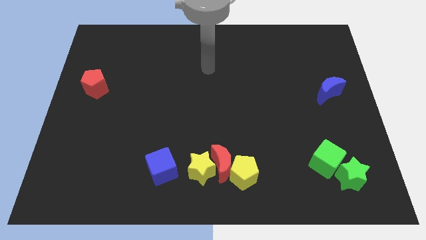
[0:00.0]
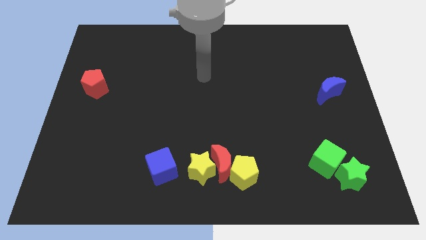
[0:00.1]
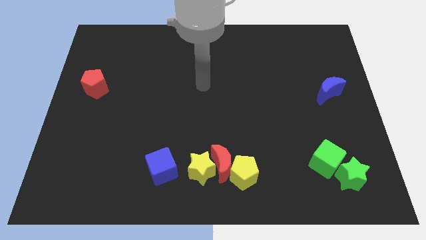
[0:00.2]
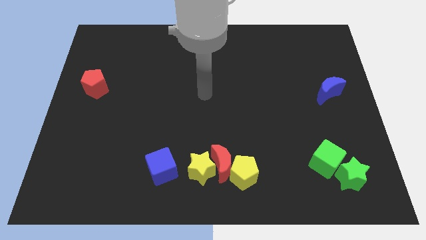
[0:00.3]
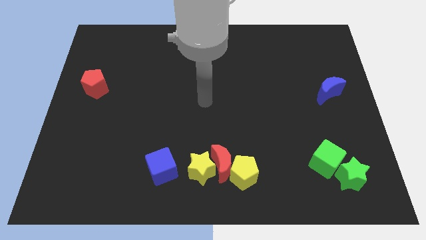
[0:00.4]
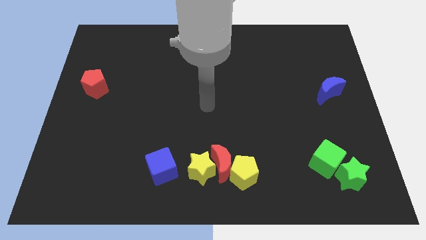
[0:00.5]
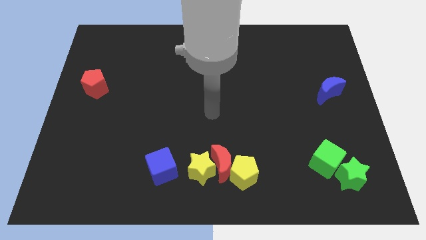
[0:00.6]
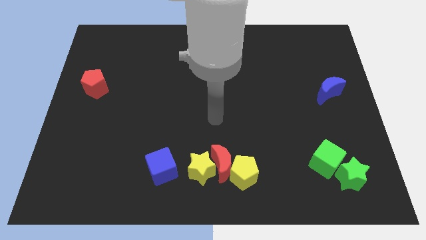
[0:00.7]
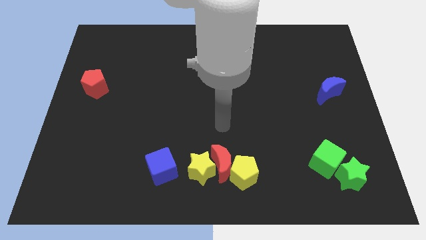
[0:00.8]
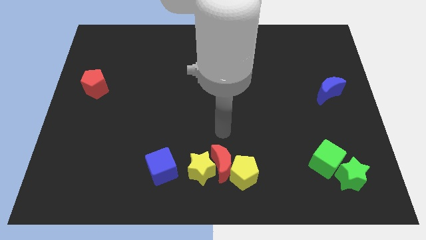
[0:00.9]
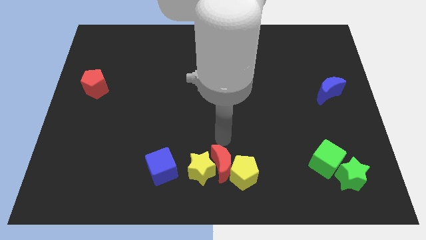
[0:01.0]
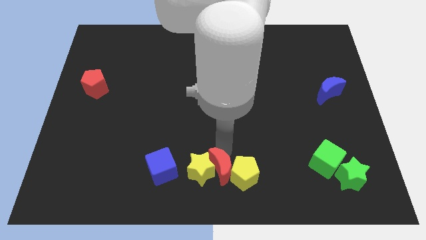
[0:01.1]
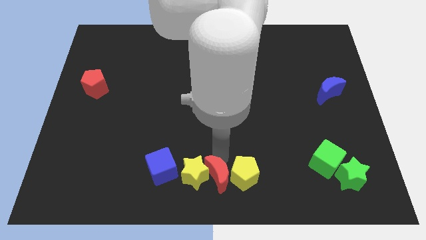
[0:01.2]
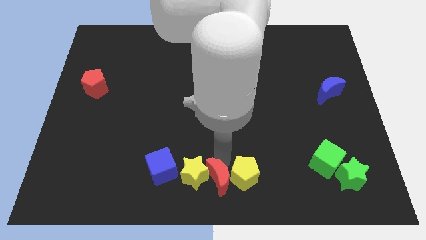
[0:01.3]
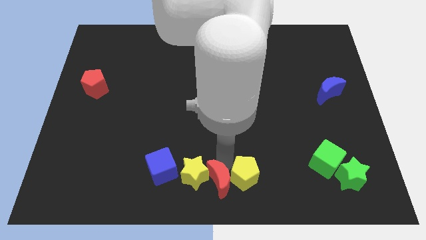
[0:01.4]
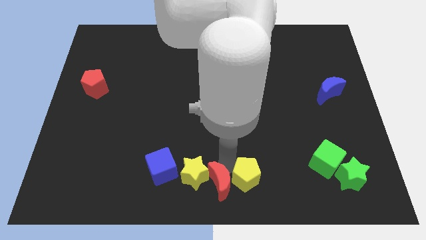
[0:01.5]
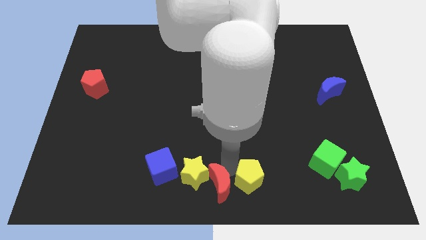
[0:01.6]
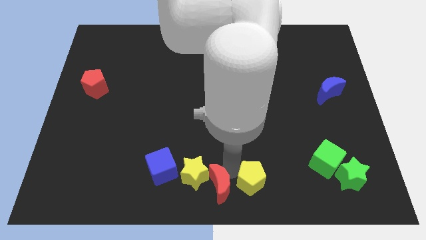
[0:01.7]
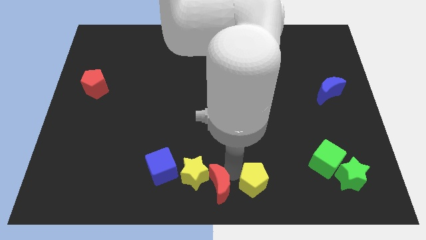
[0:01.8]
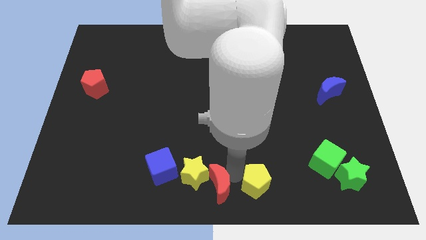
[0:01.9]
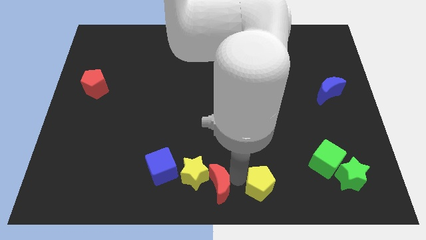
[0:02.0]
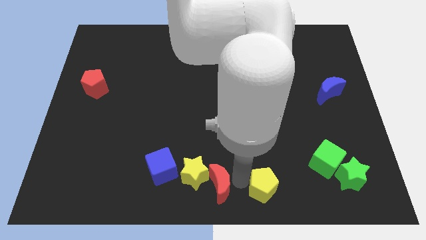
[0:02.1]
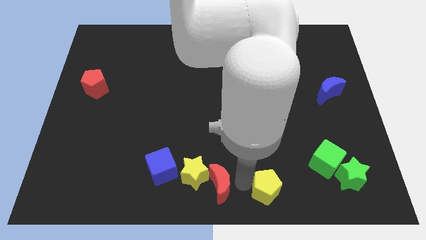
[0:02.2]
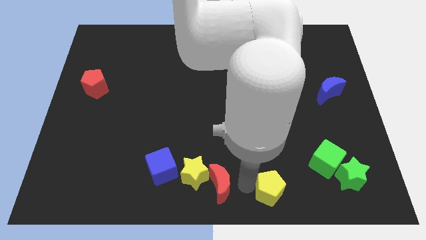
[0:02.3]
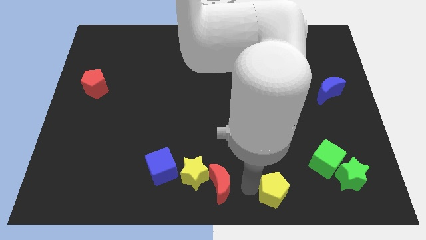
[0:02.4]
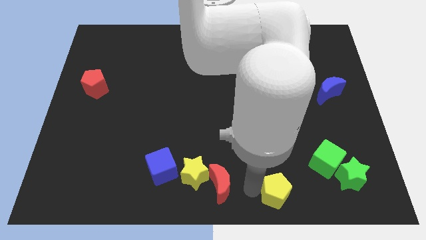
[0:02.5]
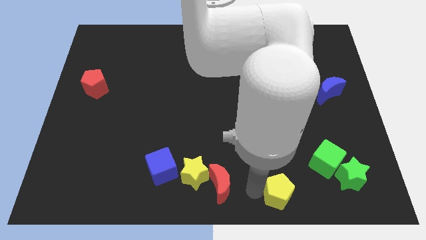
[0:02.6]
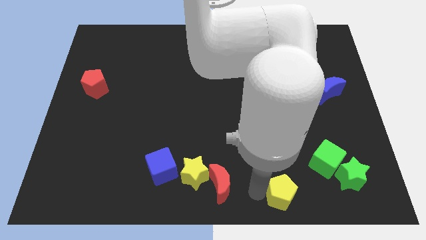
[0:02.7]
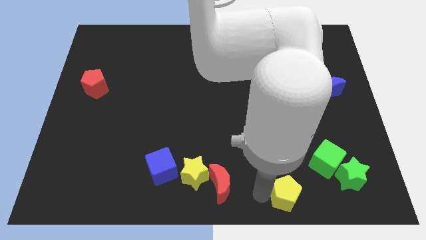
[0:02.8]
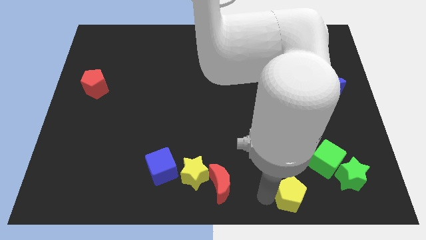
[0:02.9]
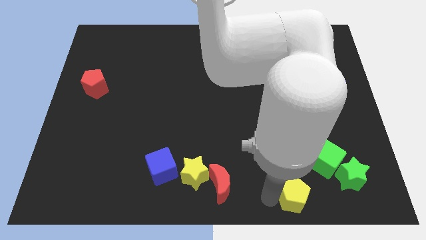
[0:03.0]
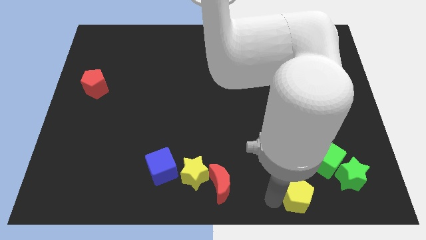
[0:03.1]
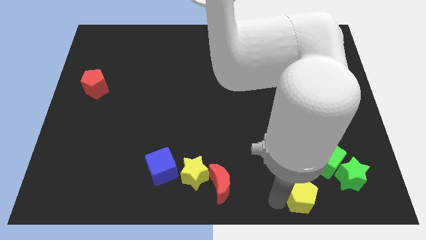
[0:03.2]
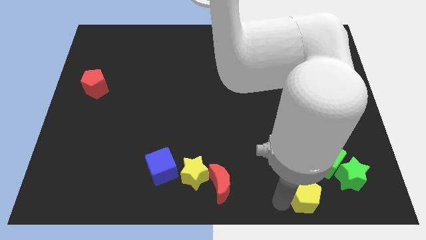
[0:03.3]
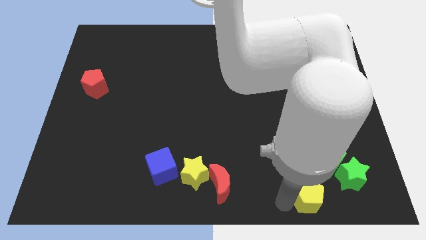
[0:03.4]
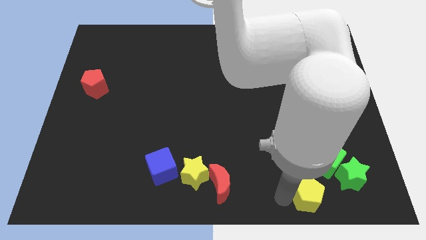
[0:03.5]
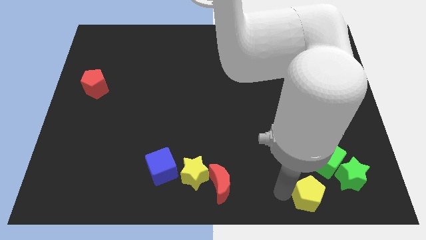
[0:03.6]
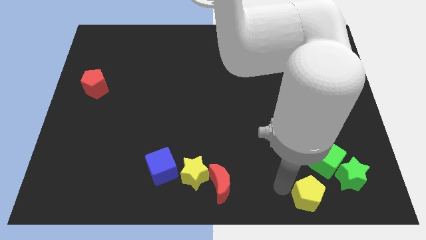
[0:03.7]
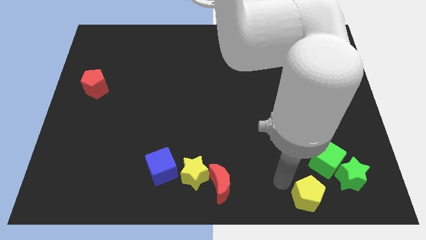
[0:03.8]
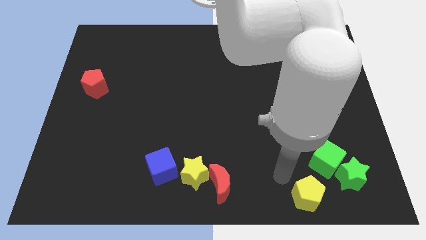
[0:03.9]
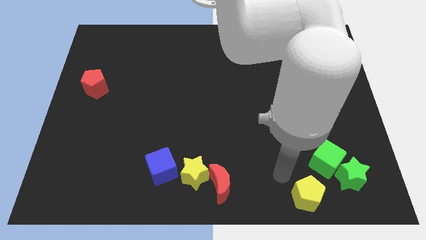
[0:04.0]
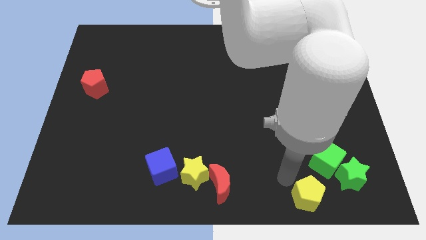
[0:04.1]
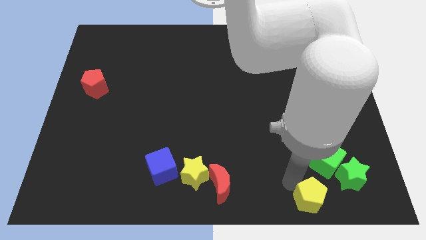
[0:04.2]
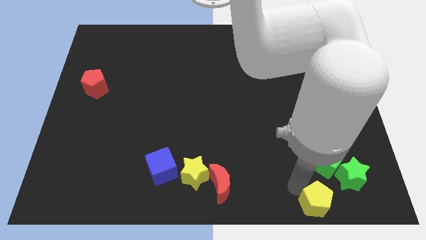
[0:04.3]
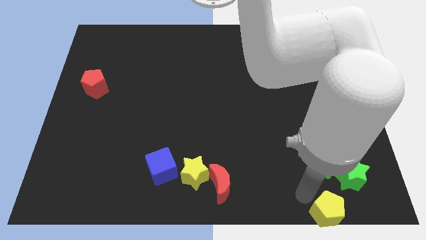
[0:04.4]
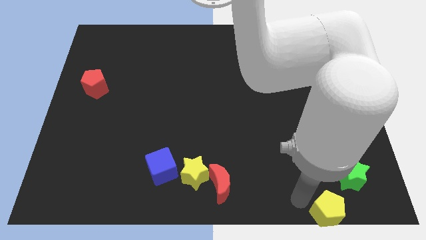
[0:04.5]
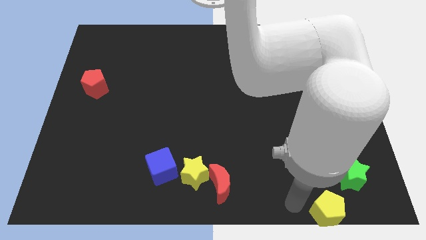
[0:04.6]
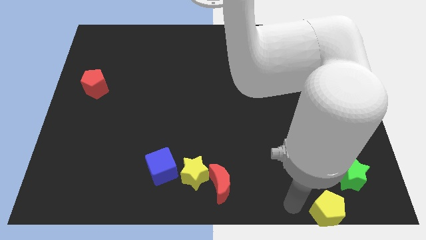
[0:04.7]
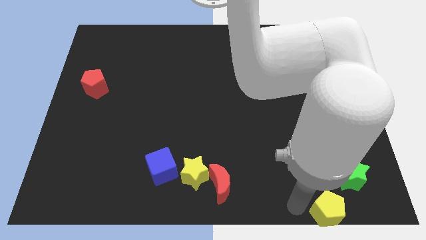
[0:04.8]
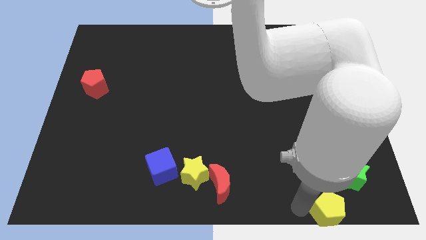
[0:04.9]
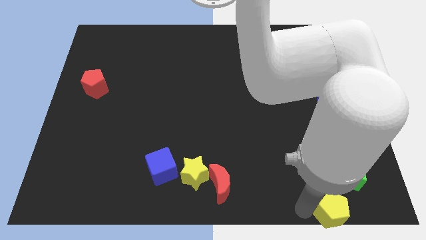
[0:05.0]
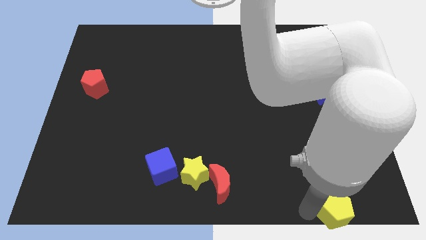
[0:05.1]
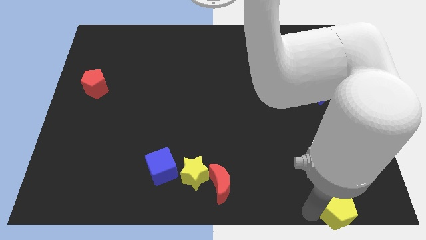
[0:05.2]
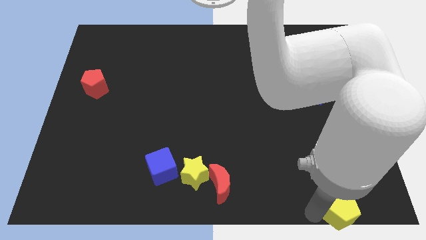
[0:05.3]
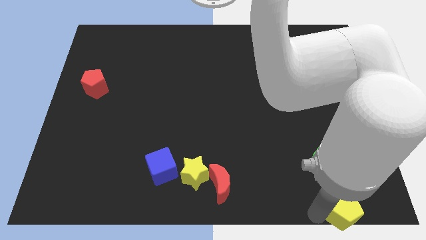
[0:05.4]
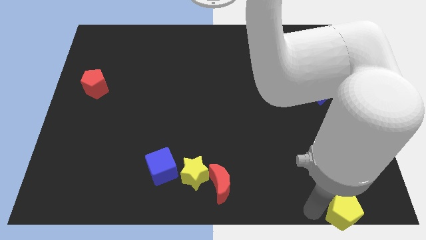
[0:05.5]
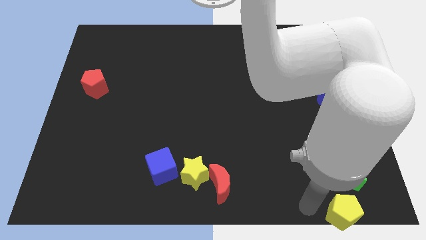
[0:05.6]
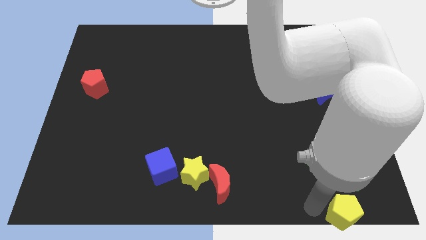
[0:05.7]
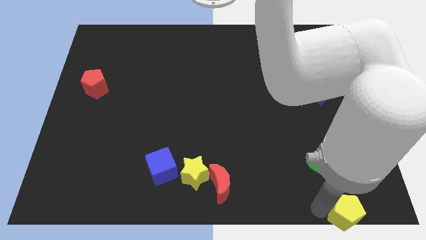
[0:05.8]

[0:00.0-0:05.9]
move the yellow pentagon to the lower right corner

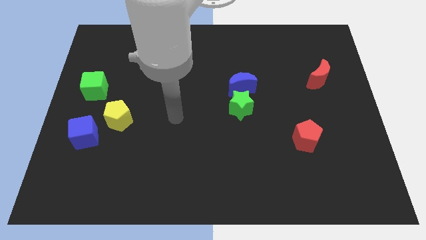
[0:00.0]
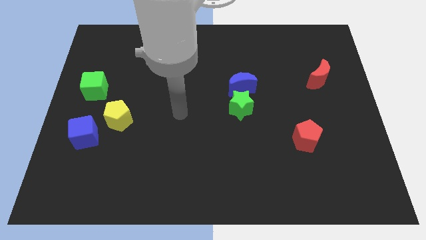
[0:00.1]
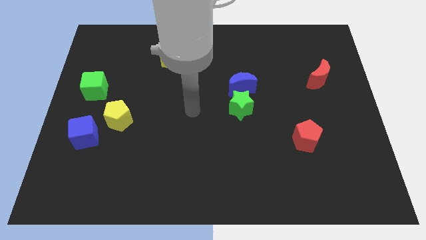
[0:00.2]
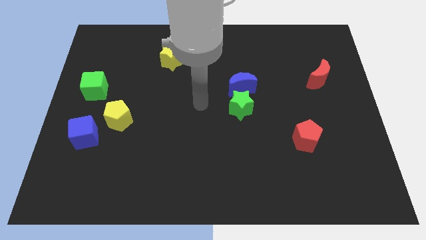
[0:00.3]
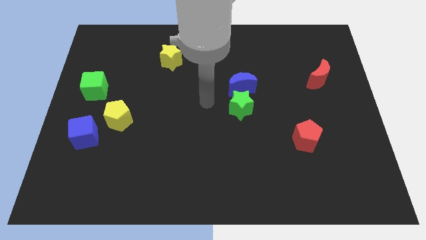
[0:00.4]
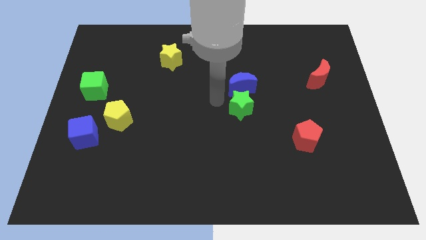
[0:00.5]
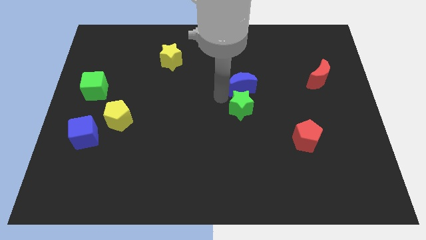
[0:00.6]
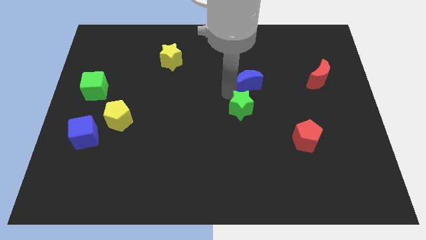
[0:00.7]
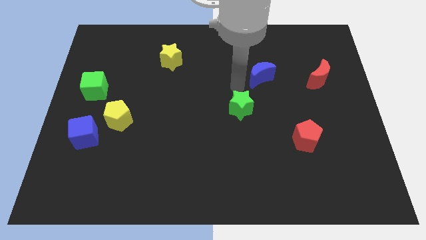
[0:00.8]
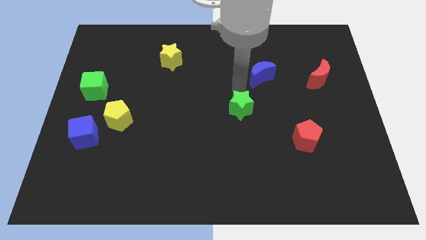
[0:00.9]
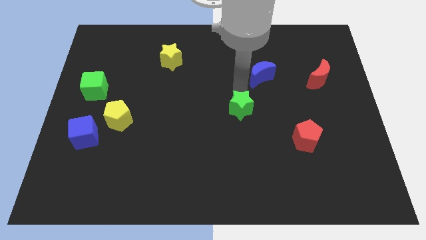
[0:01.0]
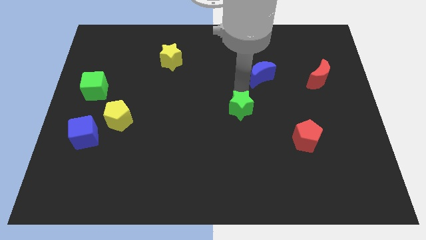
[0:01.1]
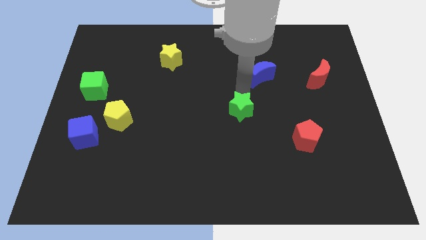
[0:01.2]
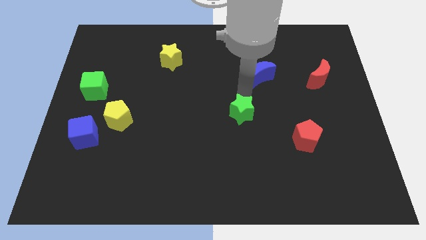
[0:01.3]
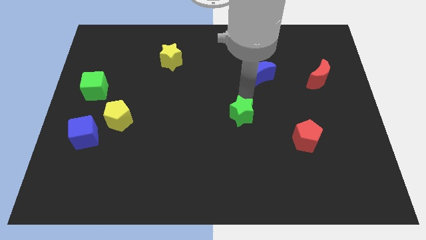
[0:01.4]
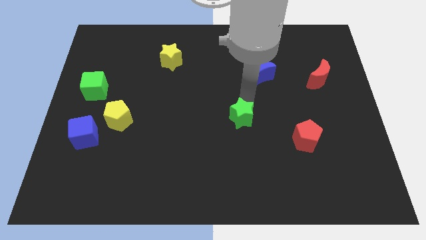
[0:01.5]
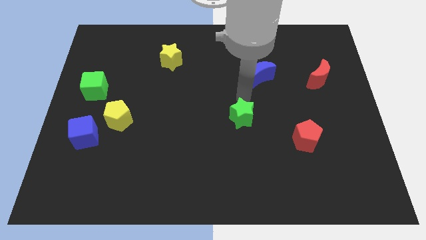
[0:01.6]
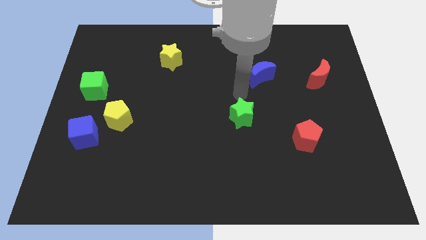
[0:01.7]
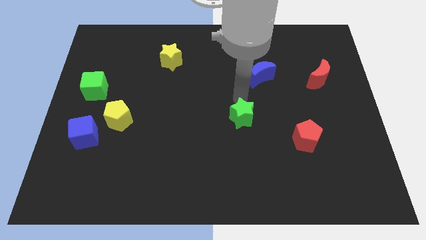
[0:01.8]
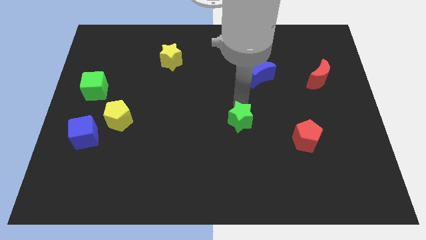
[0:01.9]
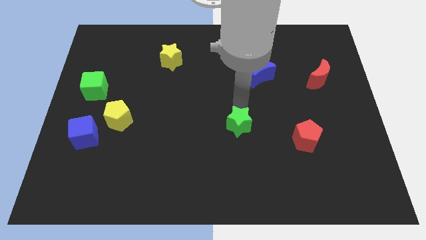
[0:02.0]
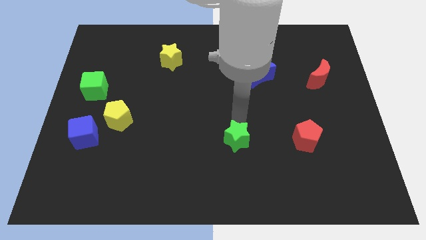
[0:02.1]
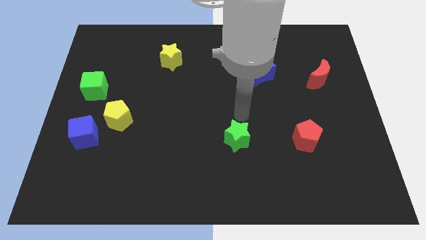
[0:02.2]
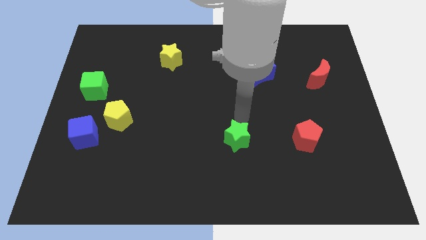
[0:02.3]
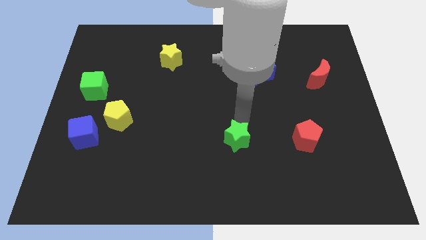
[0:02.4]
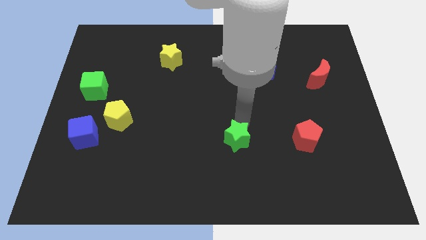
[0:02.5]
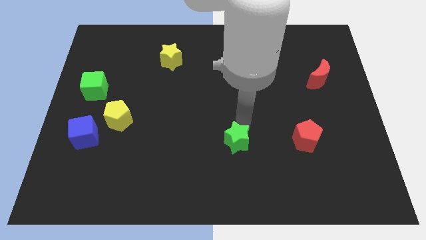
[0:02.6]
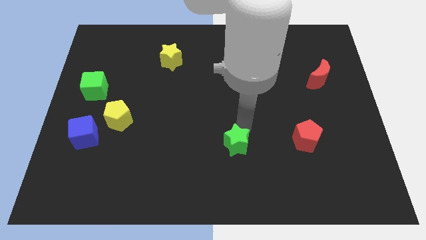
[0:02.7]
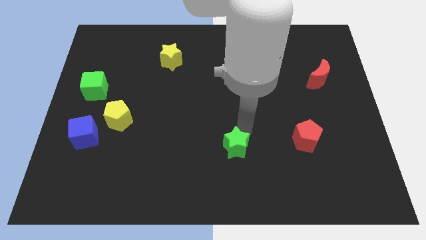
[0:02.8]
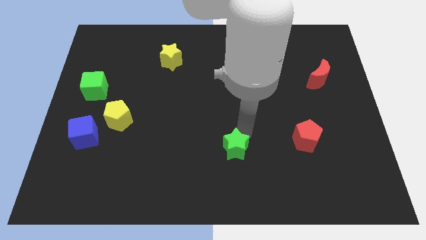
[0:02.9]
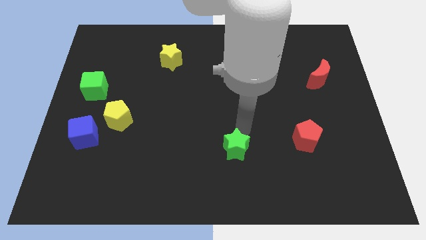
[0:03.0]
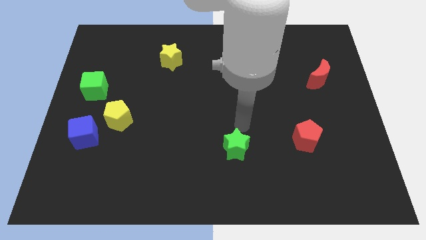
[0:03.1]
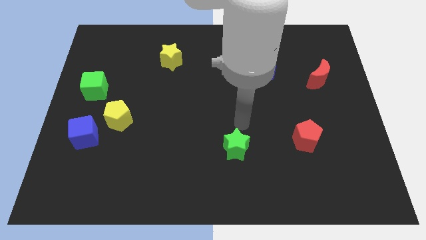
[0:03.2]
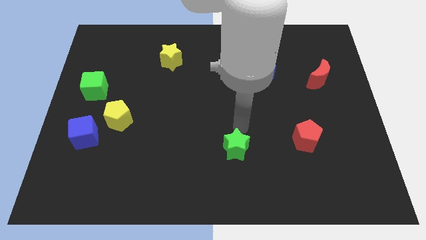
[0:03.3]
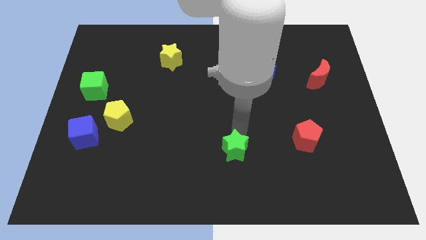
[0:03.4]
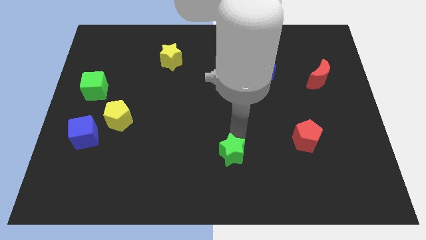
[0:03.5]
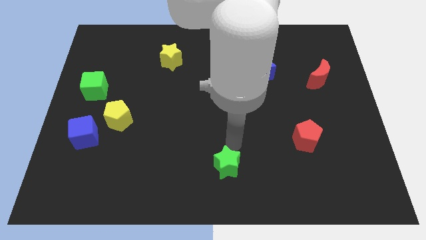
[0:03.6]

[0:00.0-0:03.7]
slide the green star to the bottom
